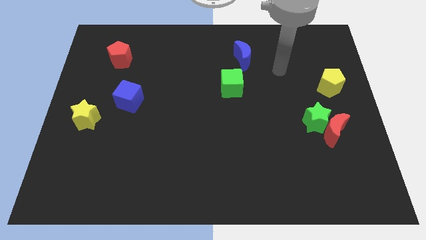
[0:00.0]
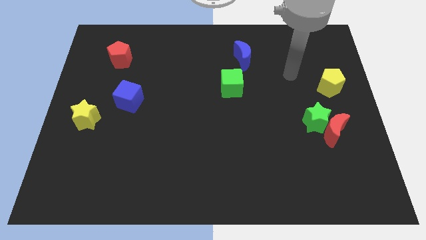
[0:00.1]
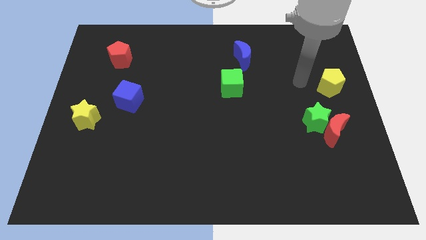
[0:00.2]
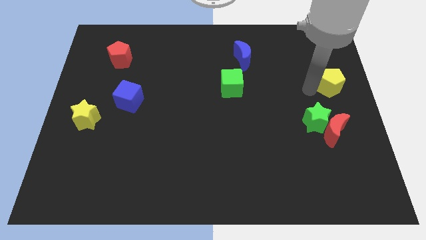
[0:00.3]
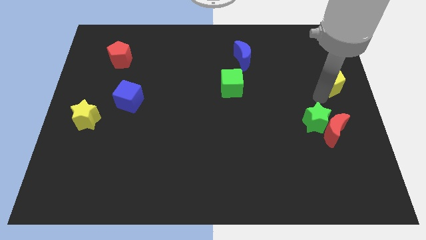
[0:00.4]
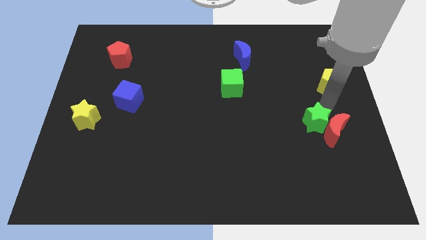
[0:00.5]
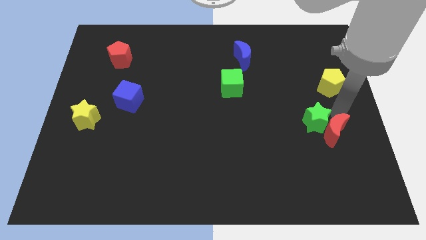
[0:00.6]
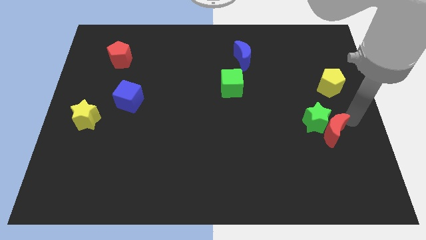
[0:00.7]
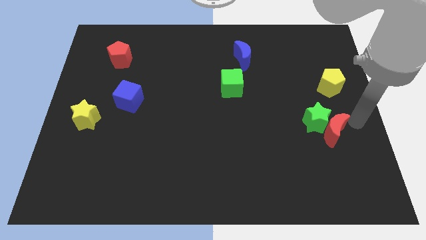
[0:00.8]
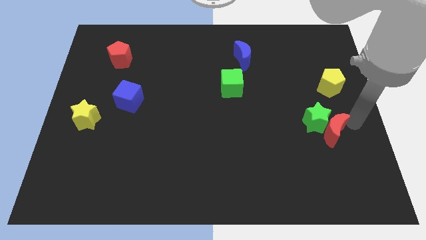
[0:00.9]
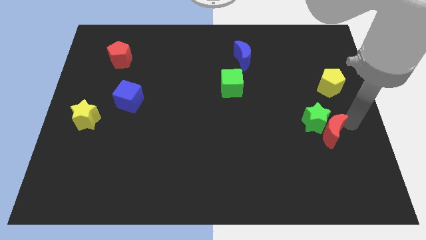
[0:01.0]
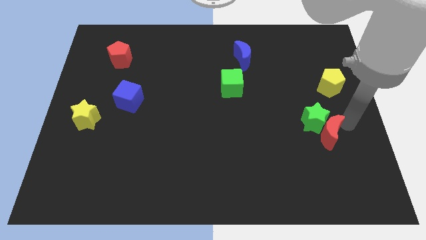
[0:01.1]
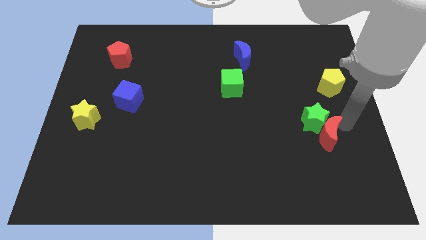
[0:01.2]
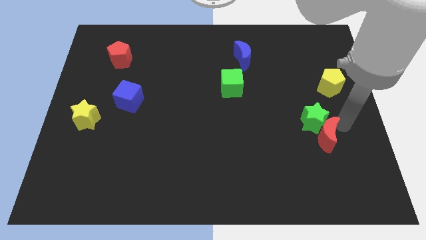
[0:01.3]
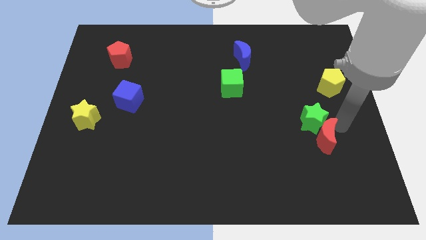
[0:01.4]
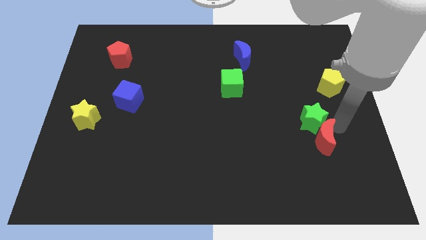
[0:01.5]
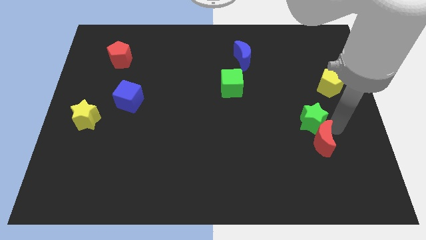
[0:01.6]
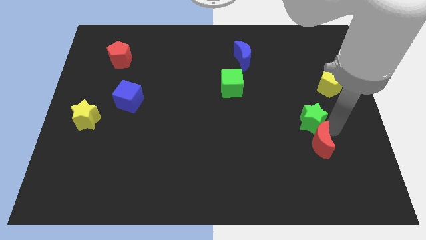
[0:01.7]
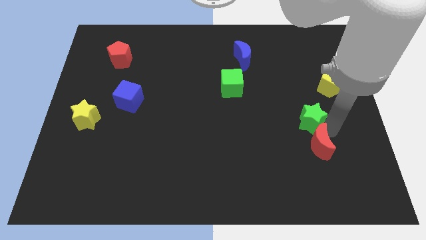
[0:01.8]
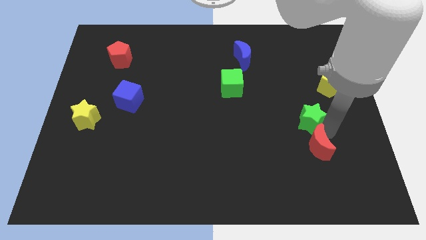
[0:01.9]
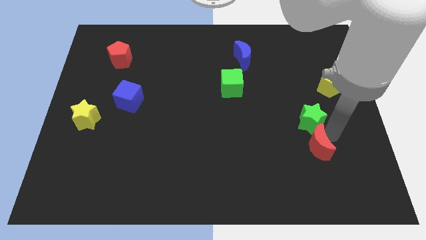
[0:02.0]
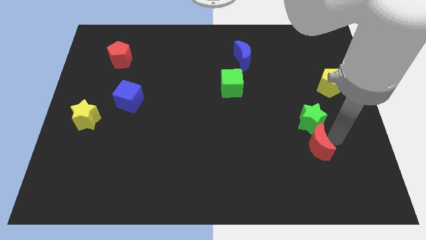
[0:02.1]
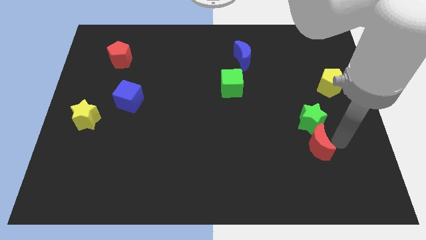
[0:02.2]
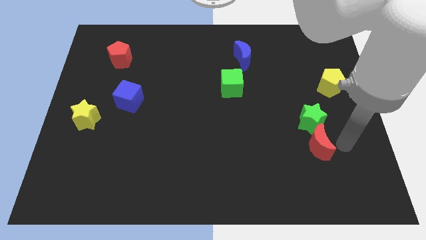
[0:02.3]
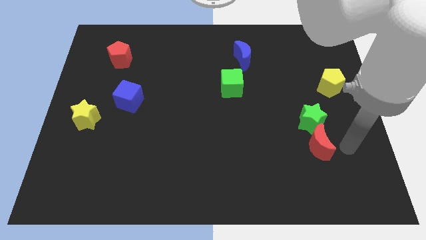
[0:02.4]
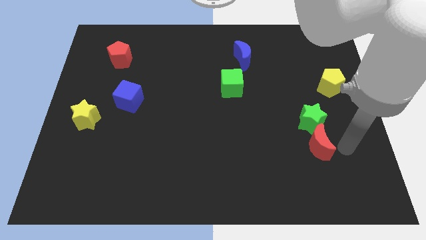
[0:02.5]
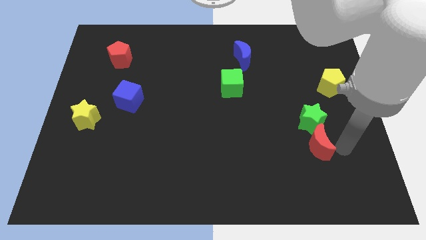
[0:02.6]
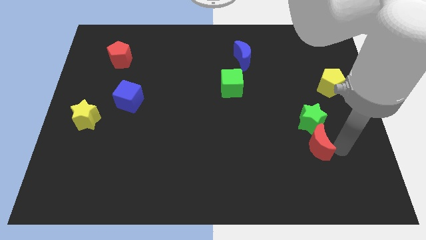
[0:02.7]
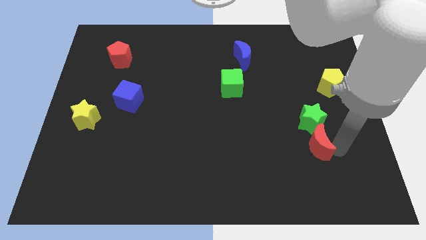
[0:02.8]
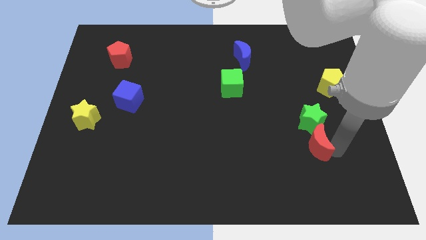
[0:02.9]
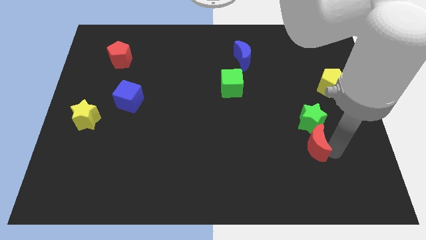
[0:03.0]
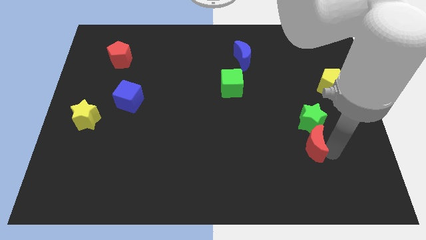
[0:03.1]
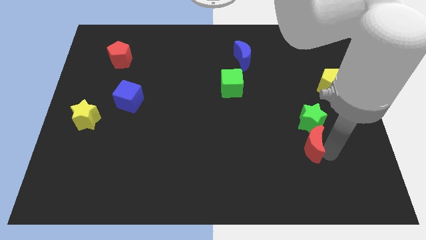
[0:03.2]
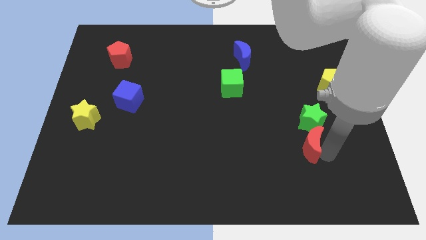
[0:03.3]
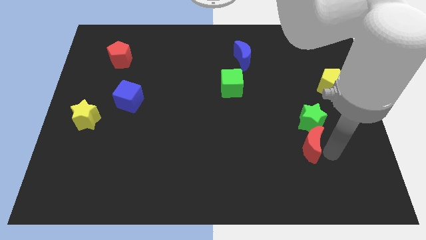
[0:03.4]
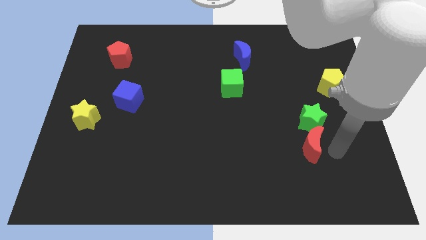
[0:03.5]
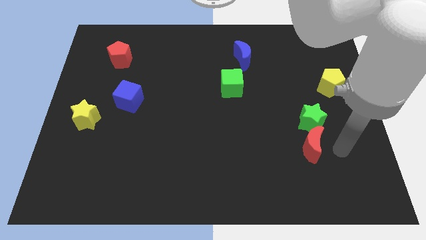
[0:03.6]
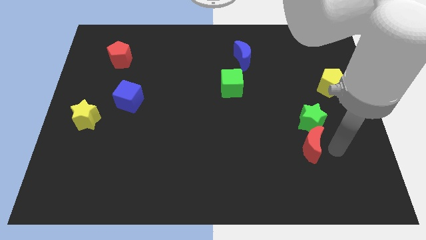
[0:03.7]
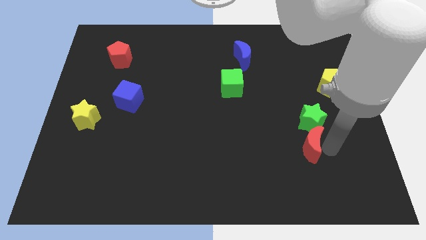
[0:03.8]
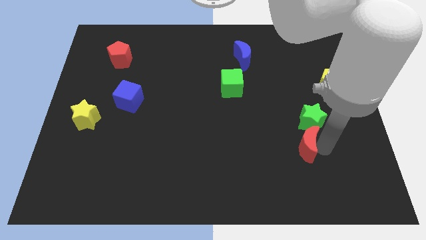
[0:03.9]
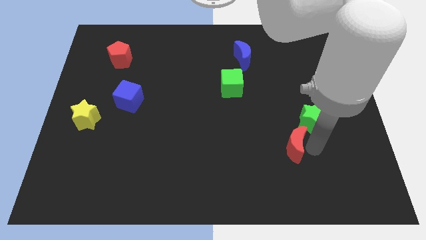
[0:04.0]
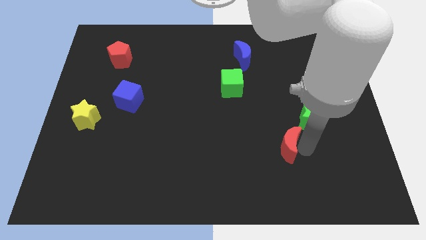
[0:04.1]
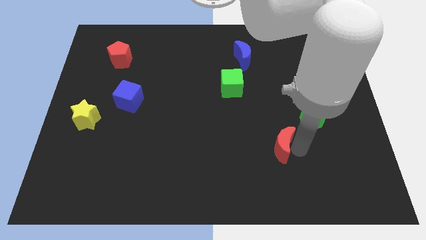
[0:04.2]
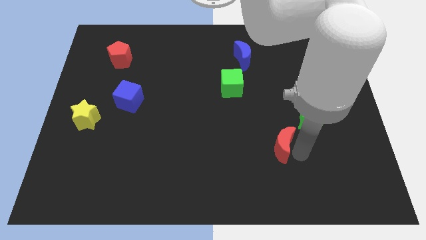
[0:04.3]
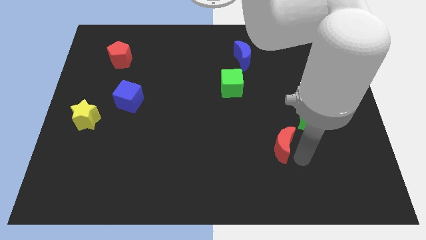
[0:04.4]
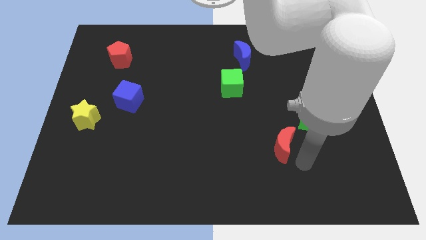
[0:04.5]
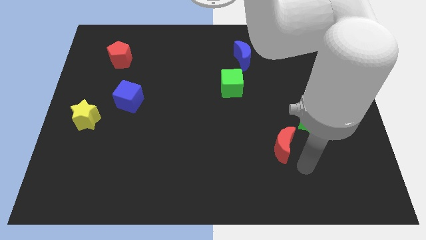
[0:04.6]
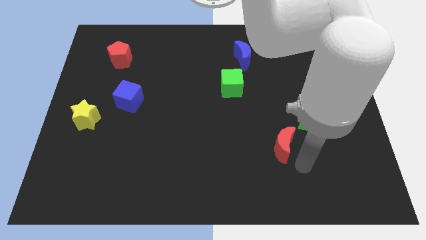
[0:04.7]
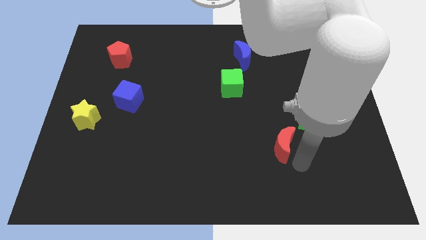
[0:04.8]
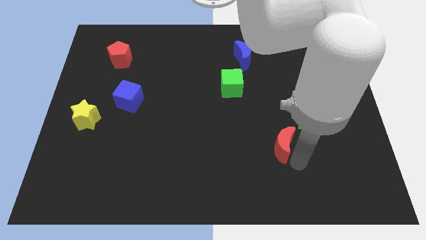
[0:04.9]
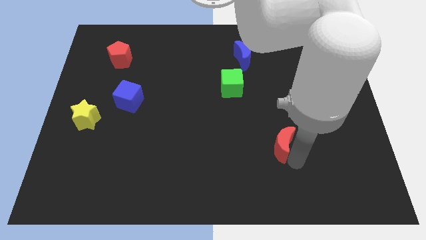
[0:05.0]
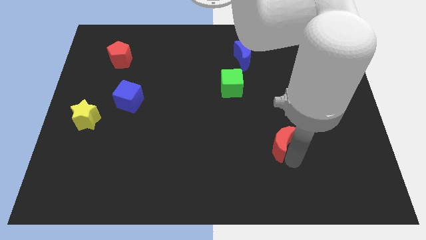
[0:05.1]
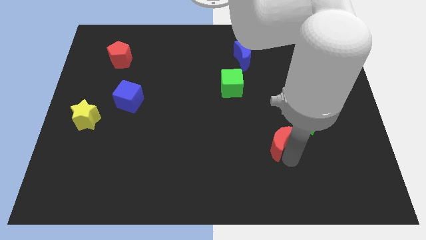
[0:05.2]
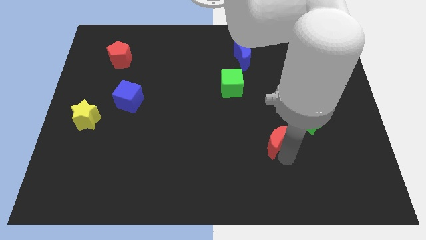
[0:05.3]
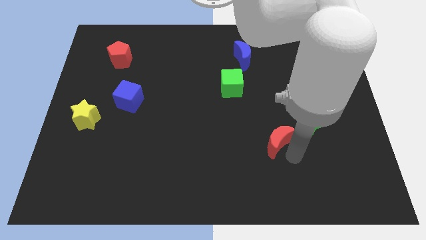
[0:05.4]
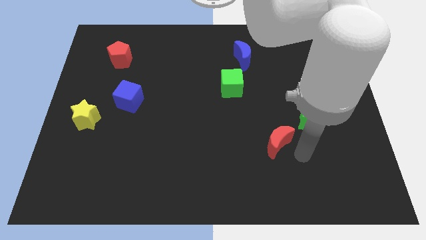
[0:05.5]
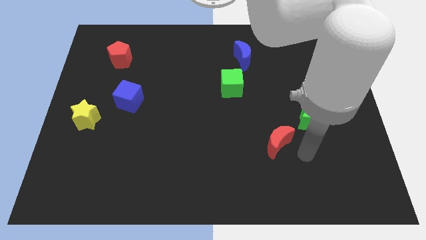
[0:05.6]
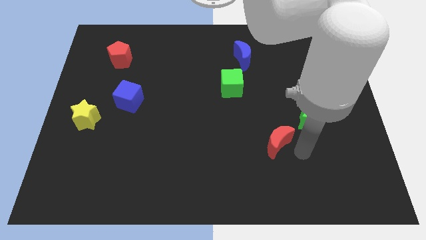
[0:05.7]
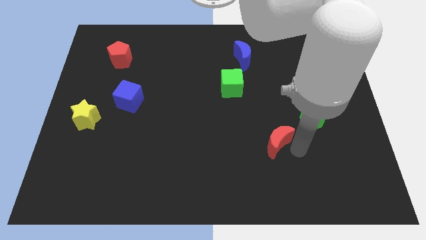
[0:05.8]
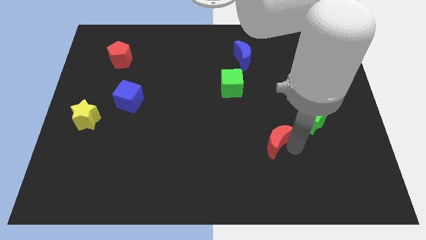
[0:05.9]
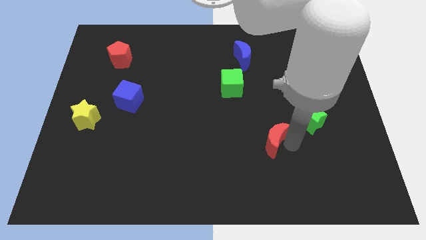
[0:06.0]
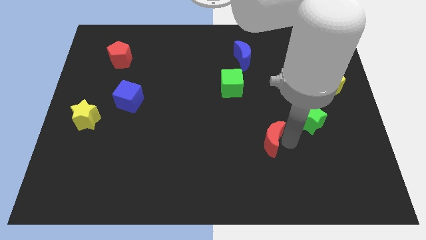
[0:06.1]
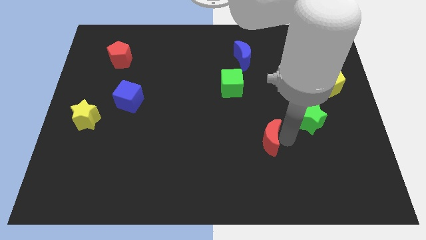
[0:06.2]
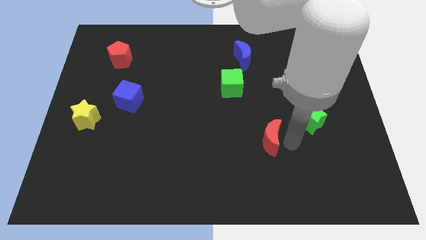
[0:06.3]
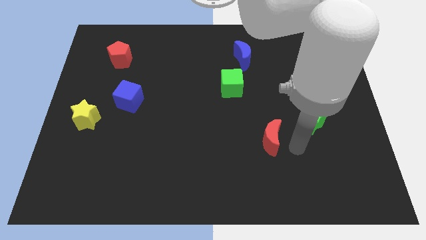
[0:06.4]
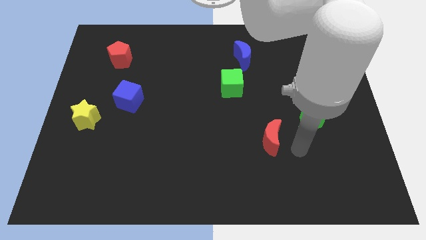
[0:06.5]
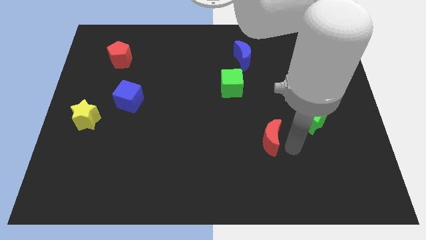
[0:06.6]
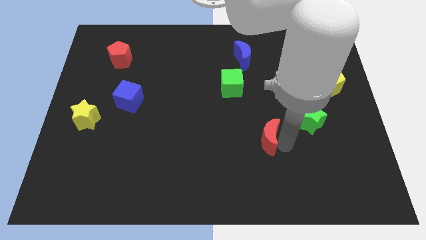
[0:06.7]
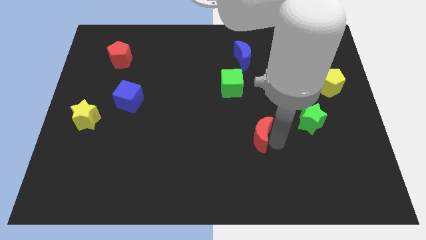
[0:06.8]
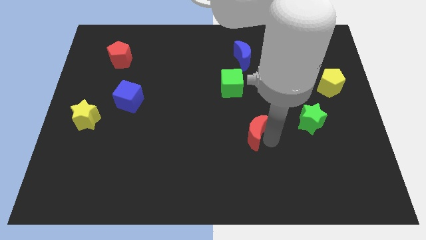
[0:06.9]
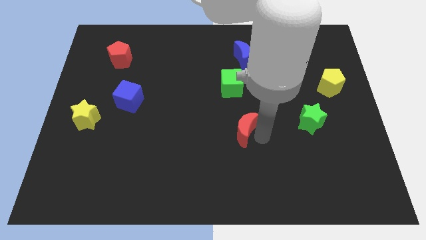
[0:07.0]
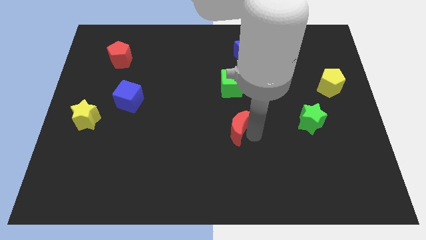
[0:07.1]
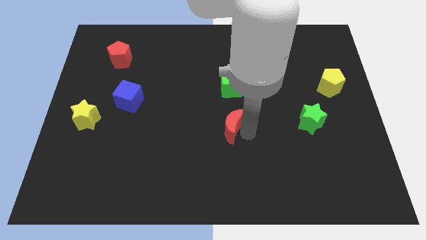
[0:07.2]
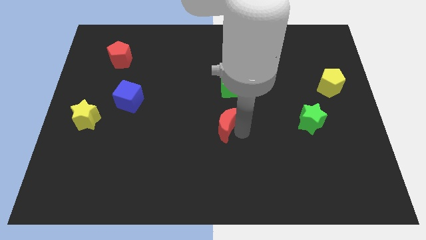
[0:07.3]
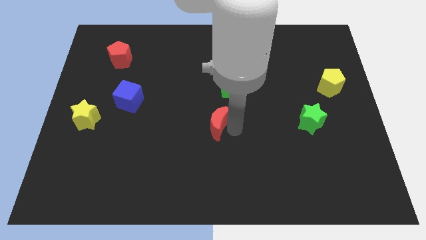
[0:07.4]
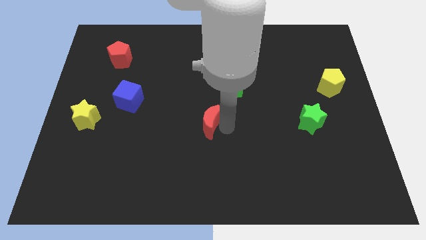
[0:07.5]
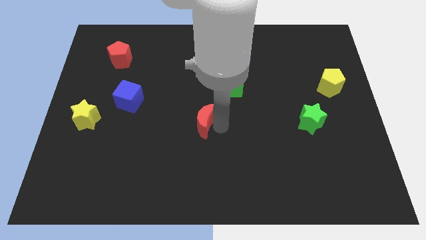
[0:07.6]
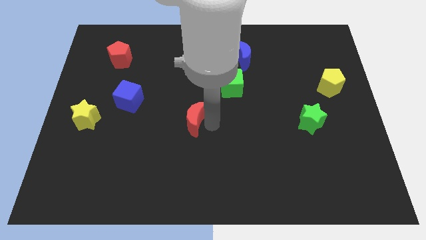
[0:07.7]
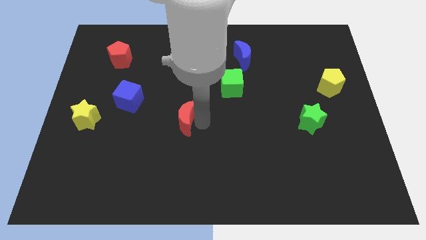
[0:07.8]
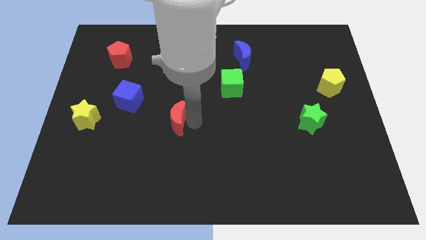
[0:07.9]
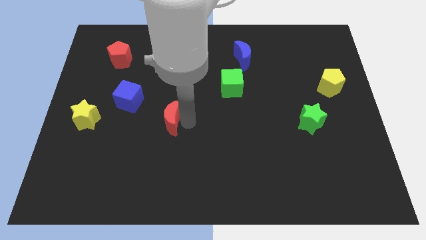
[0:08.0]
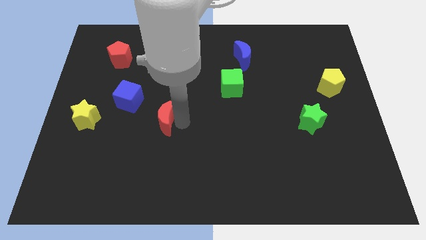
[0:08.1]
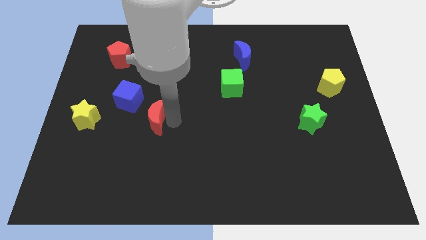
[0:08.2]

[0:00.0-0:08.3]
push the red moon right of the yellow star
